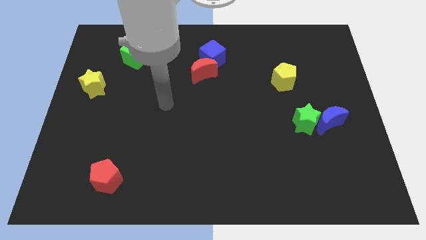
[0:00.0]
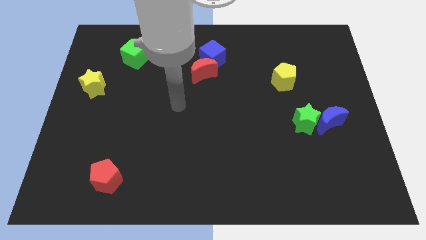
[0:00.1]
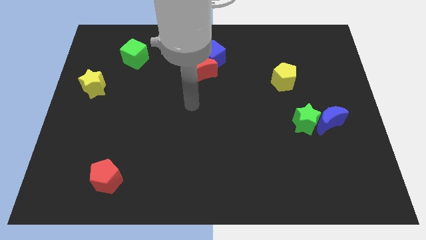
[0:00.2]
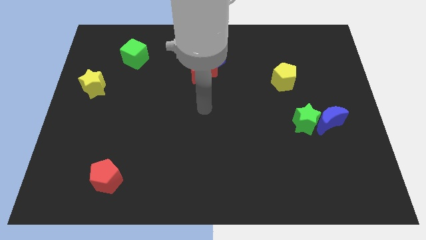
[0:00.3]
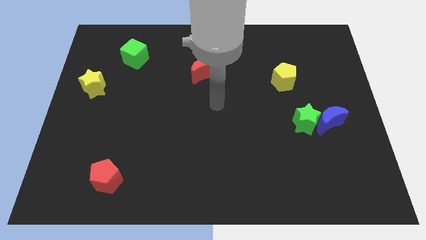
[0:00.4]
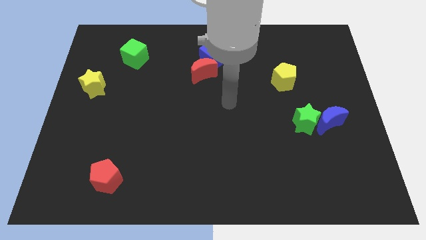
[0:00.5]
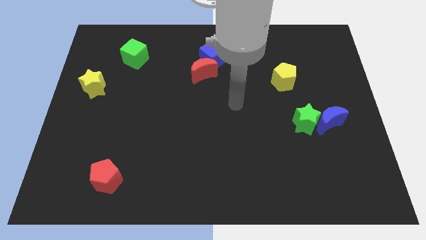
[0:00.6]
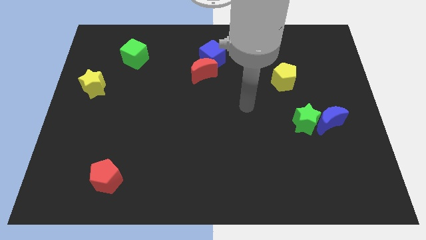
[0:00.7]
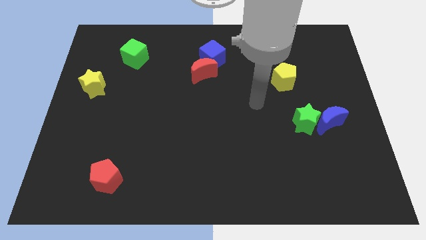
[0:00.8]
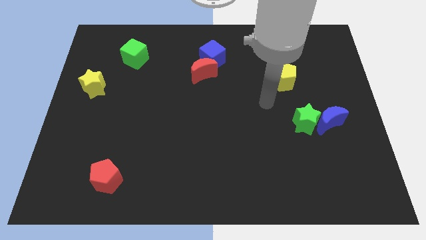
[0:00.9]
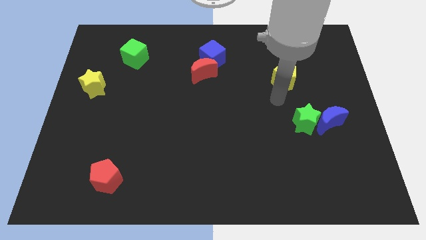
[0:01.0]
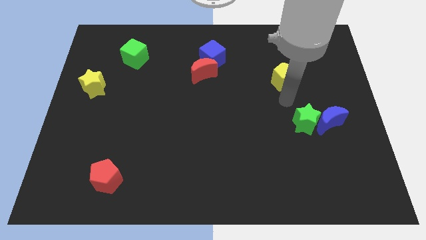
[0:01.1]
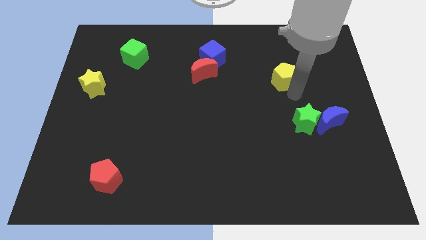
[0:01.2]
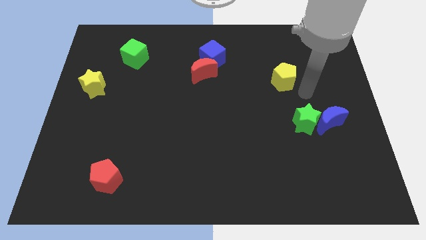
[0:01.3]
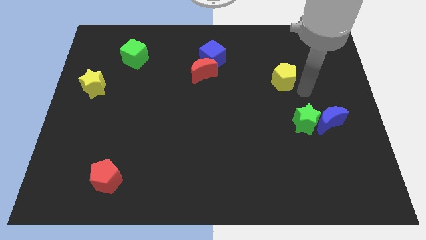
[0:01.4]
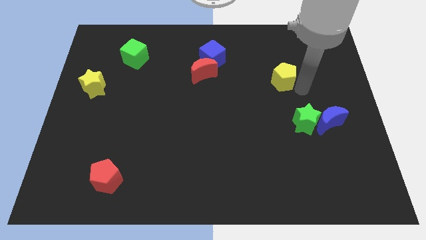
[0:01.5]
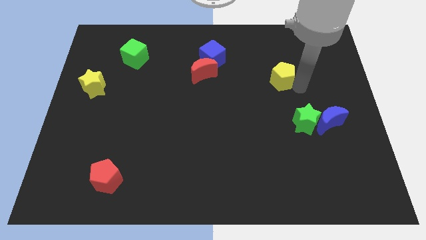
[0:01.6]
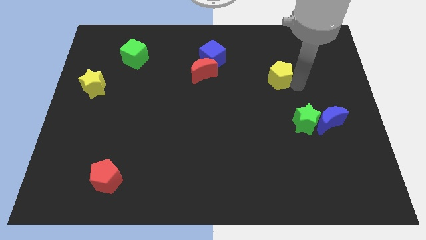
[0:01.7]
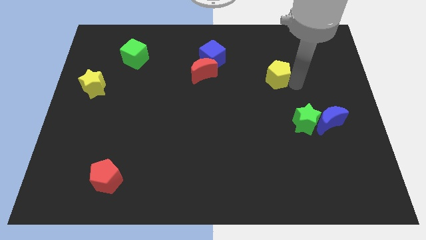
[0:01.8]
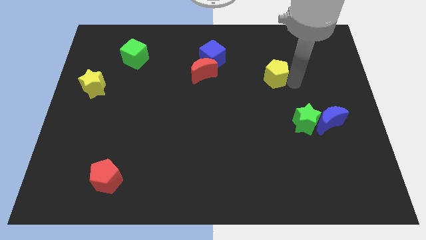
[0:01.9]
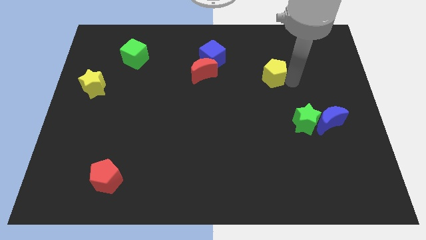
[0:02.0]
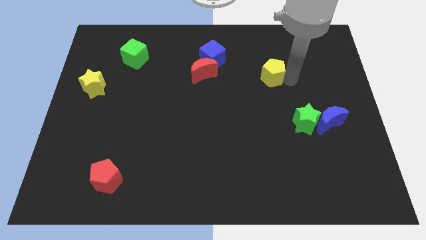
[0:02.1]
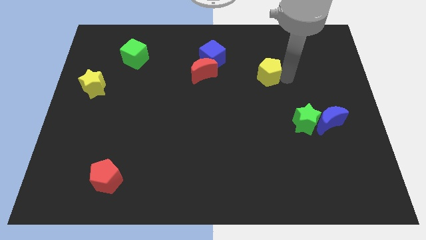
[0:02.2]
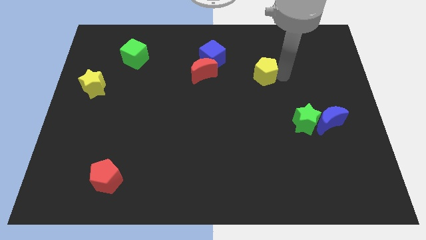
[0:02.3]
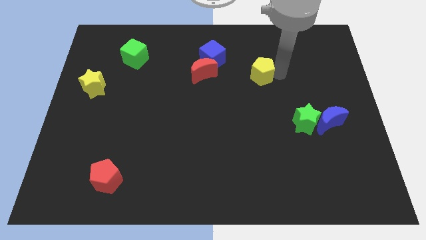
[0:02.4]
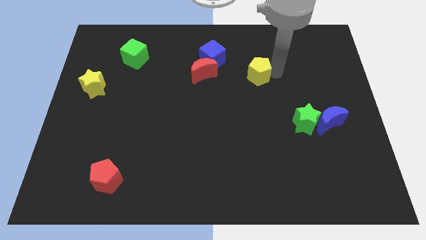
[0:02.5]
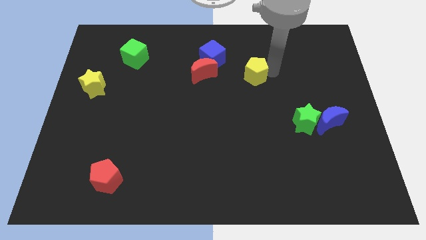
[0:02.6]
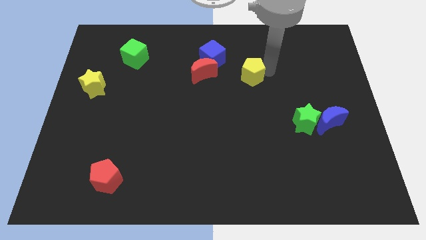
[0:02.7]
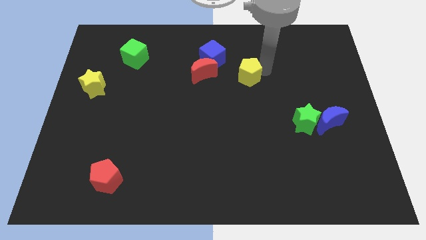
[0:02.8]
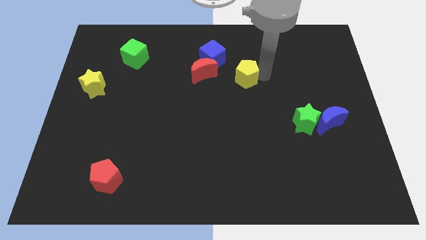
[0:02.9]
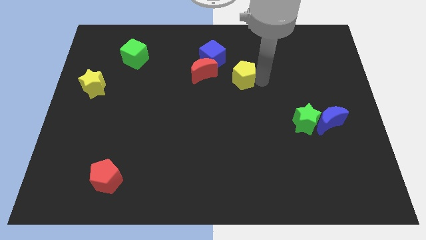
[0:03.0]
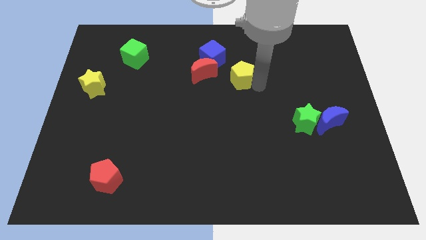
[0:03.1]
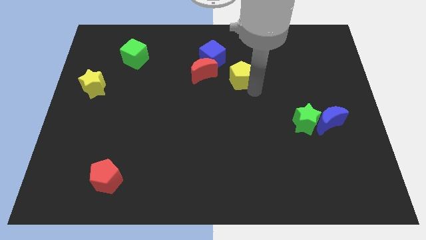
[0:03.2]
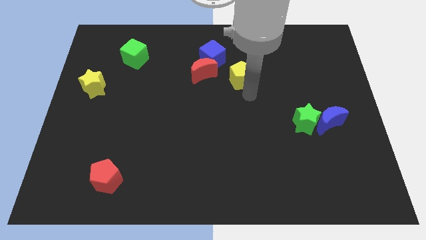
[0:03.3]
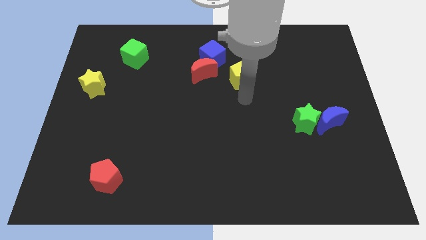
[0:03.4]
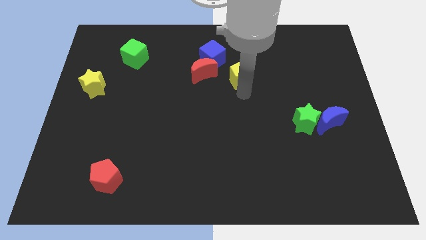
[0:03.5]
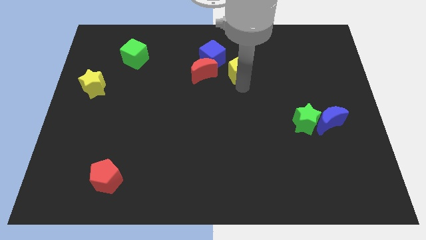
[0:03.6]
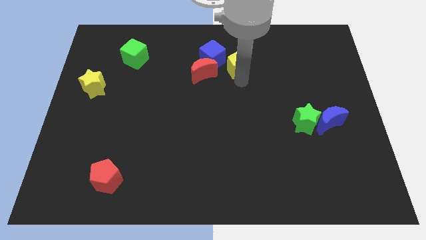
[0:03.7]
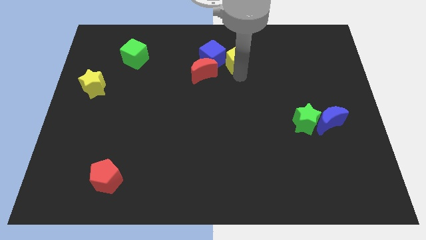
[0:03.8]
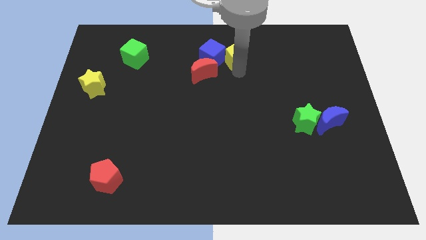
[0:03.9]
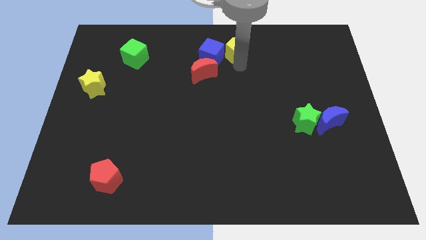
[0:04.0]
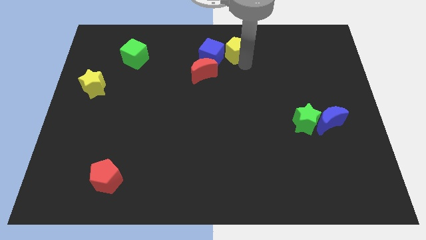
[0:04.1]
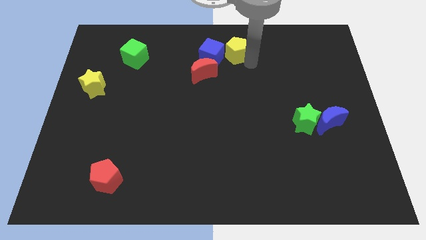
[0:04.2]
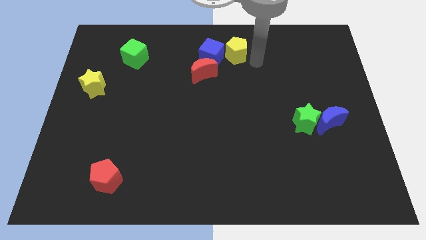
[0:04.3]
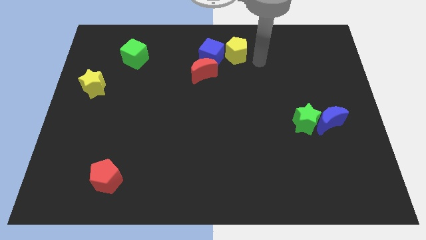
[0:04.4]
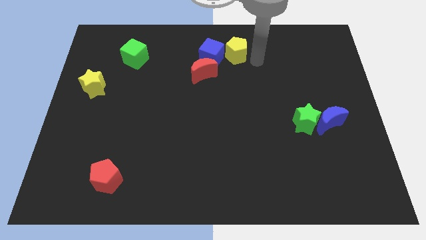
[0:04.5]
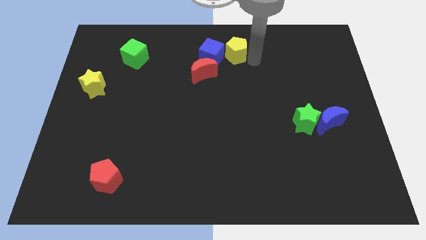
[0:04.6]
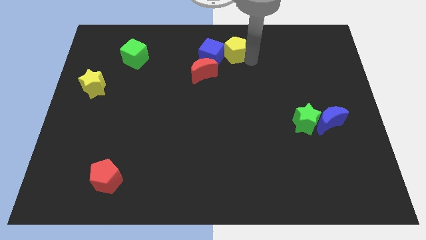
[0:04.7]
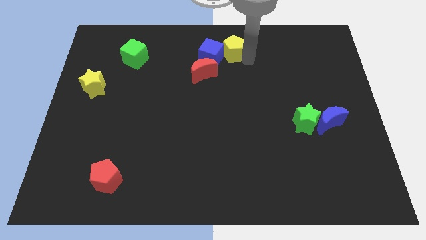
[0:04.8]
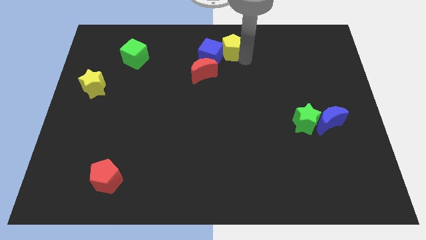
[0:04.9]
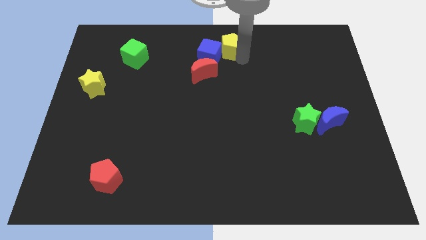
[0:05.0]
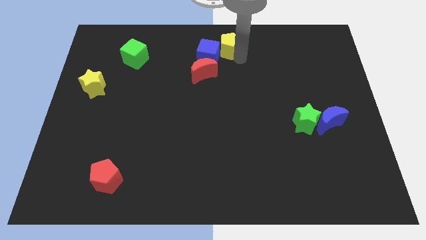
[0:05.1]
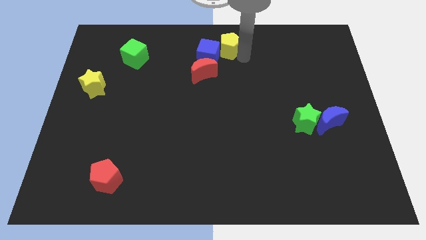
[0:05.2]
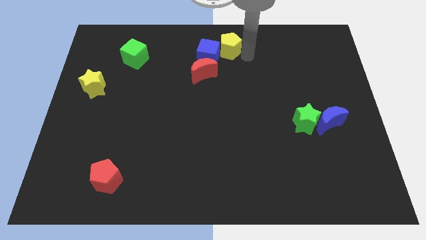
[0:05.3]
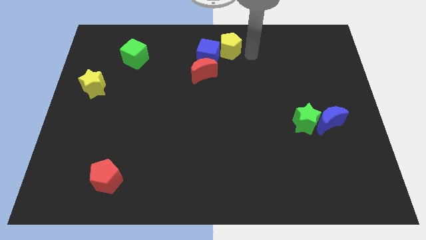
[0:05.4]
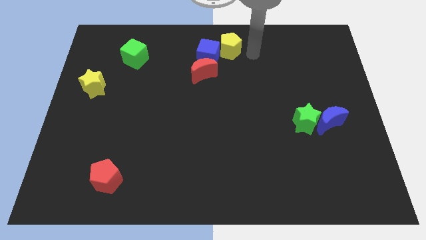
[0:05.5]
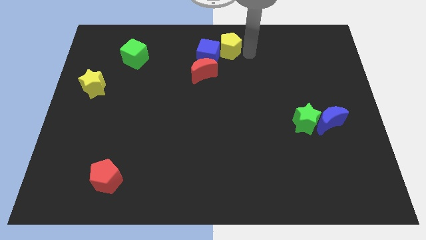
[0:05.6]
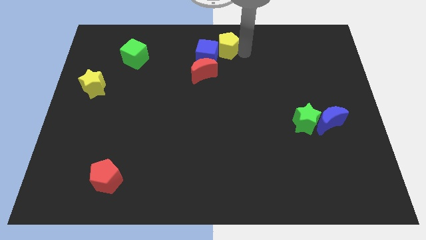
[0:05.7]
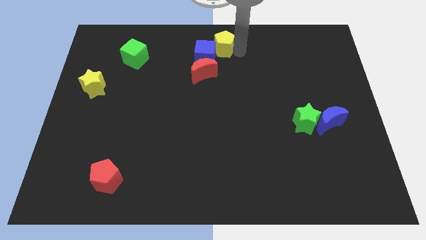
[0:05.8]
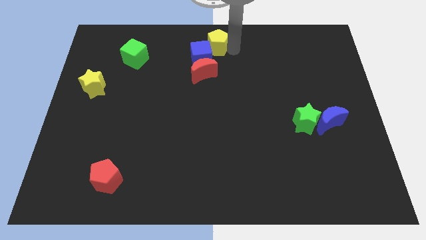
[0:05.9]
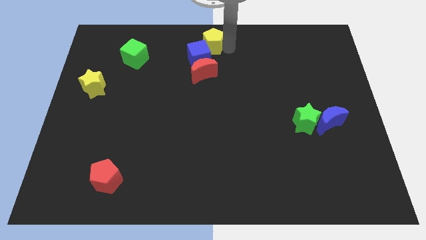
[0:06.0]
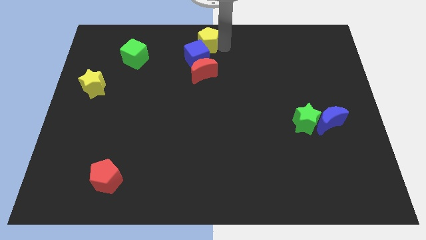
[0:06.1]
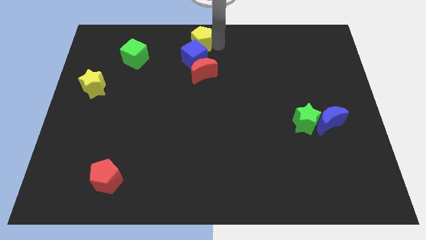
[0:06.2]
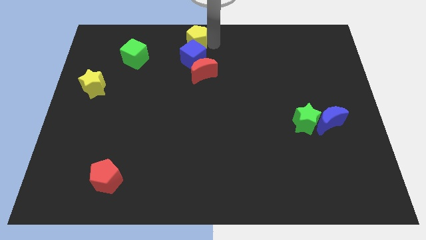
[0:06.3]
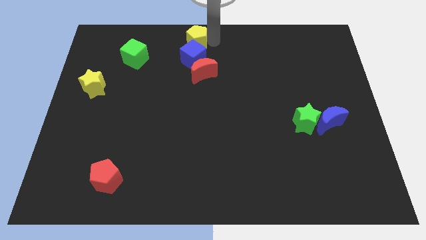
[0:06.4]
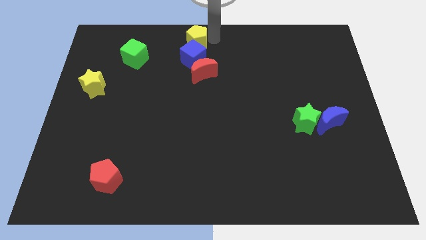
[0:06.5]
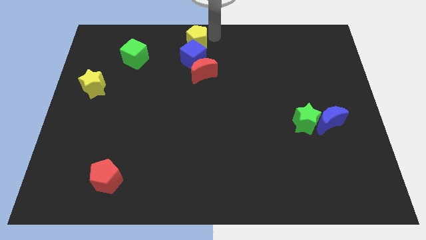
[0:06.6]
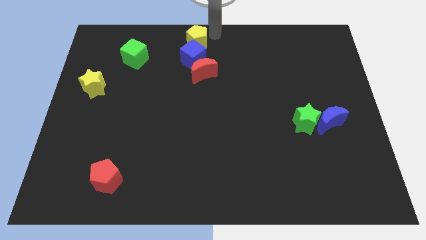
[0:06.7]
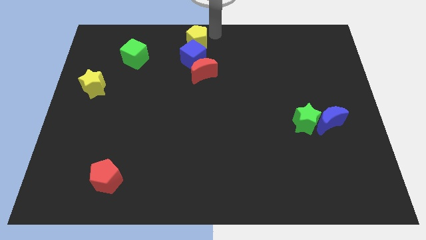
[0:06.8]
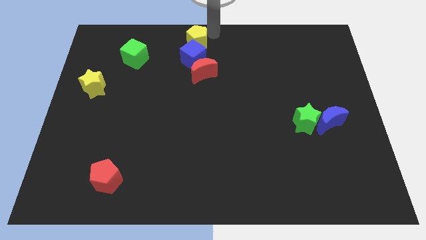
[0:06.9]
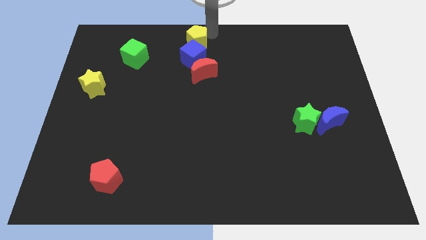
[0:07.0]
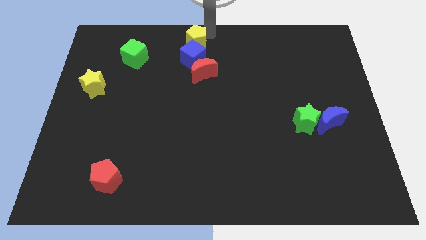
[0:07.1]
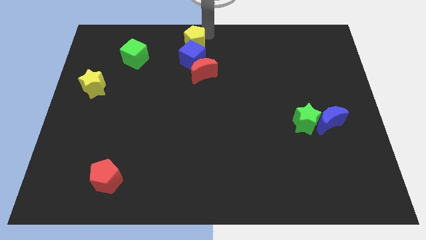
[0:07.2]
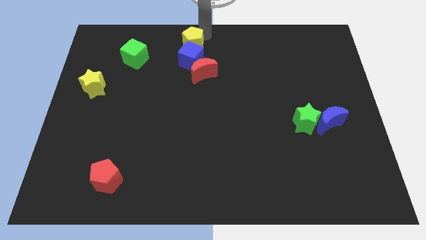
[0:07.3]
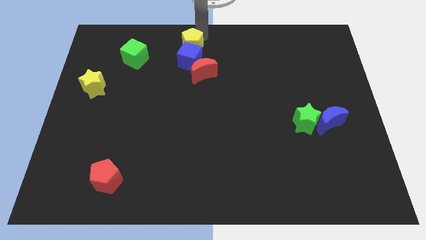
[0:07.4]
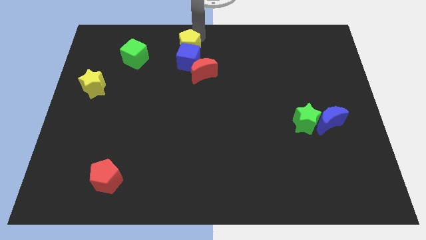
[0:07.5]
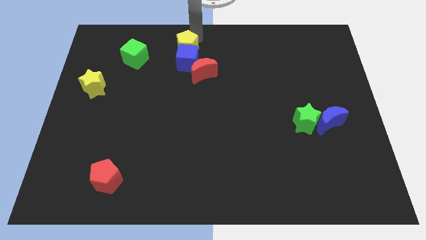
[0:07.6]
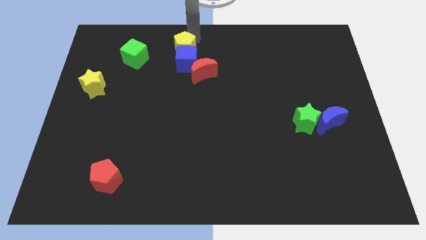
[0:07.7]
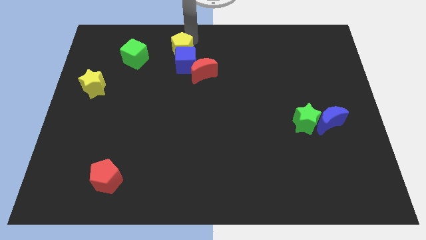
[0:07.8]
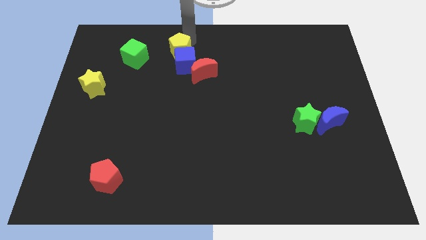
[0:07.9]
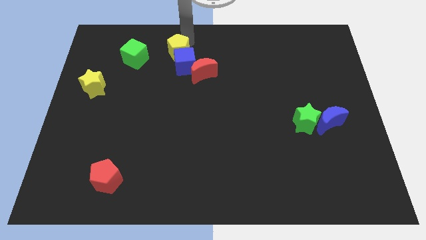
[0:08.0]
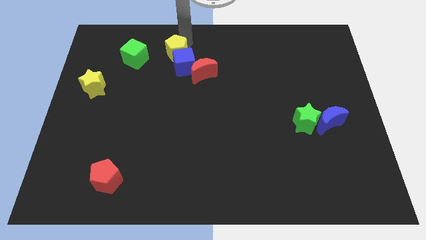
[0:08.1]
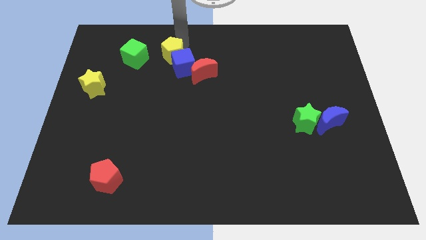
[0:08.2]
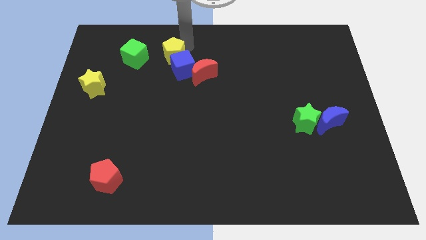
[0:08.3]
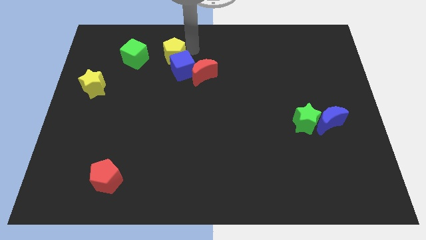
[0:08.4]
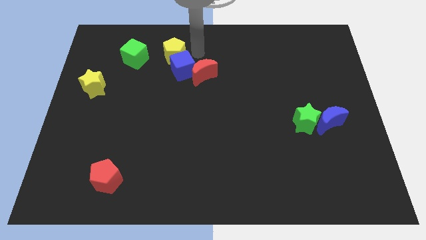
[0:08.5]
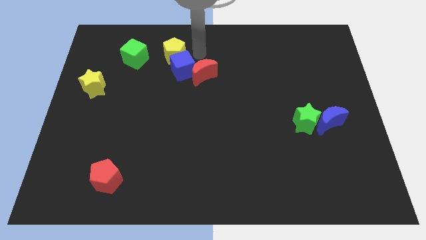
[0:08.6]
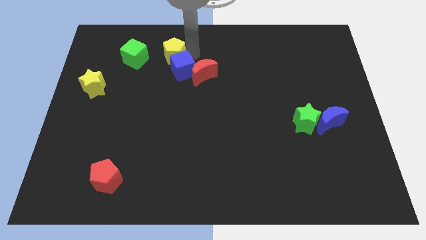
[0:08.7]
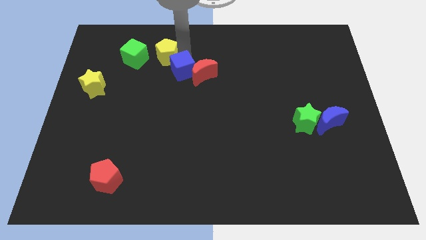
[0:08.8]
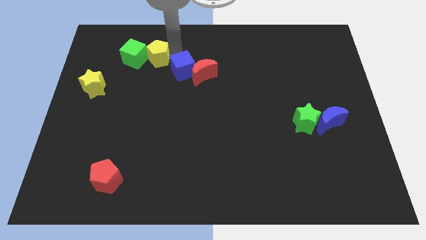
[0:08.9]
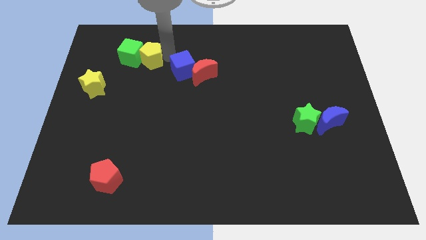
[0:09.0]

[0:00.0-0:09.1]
move the yellow pentagon to the green cube
